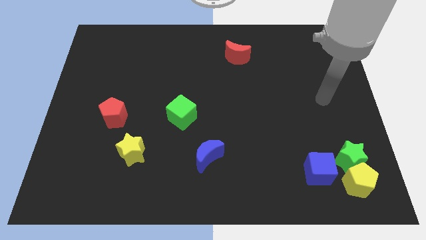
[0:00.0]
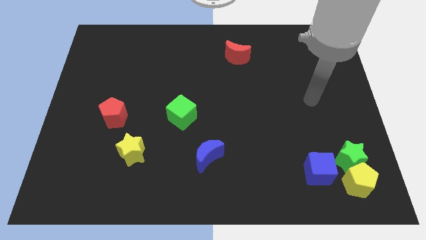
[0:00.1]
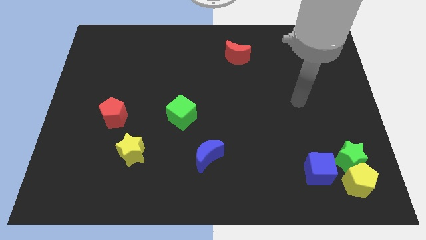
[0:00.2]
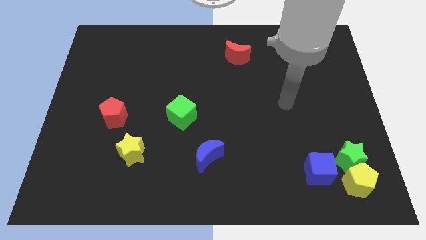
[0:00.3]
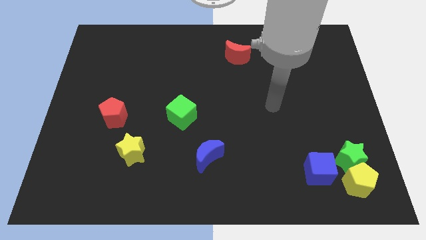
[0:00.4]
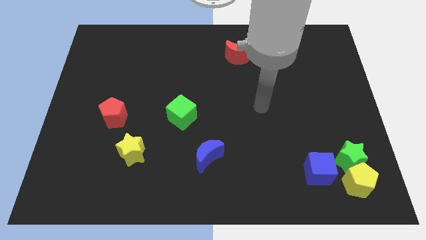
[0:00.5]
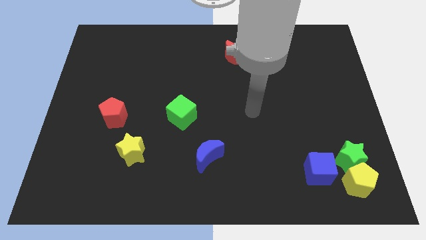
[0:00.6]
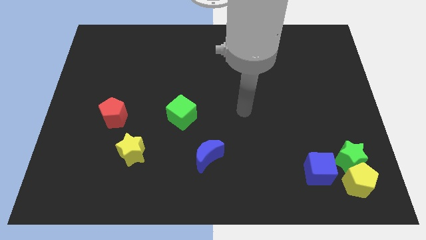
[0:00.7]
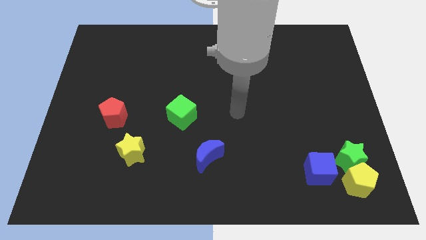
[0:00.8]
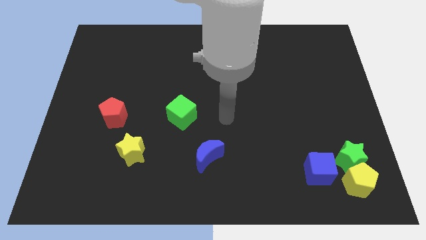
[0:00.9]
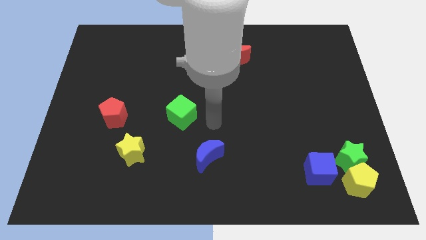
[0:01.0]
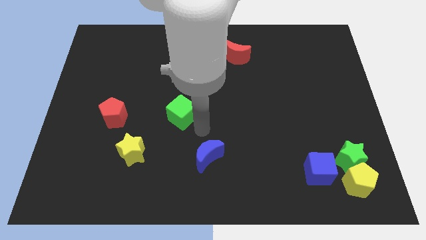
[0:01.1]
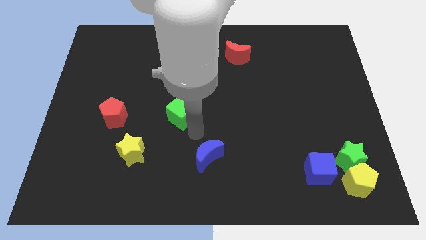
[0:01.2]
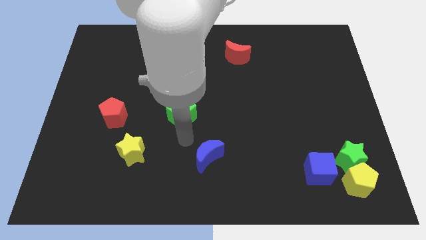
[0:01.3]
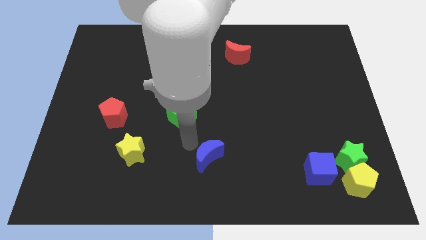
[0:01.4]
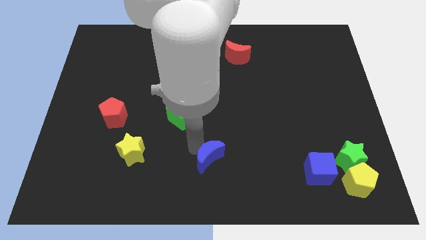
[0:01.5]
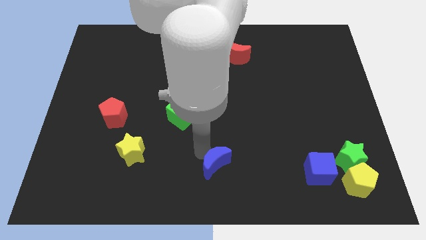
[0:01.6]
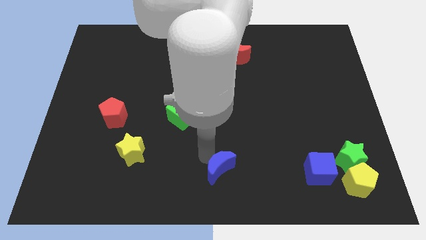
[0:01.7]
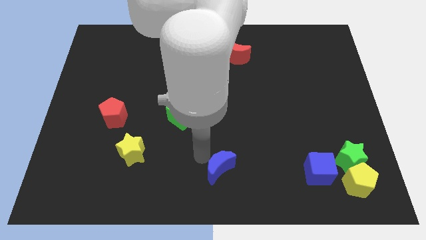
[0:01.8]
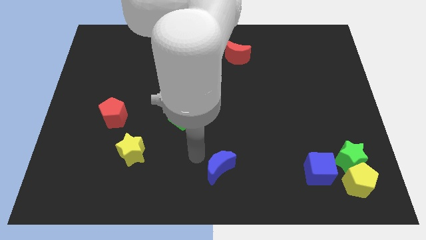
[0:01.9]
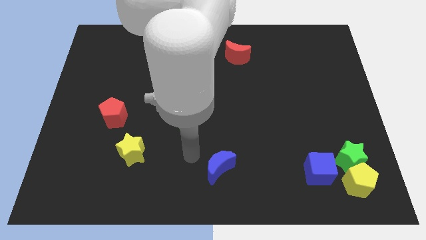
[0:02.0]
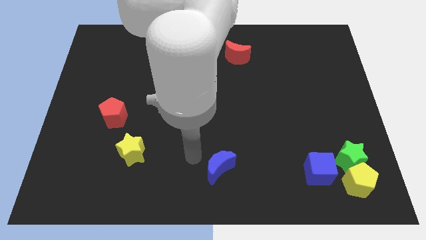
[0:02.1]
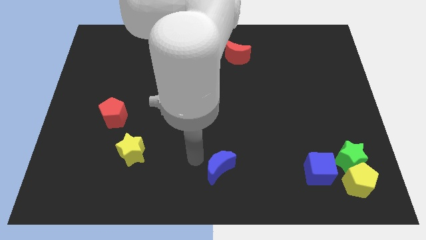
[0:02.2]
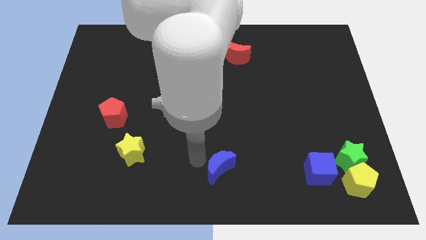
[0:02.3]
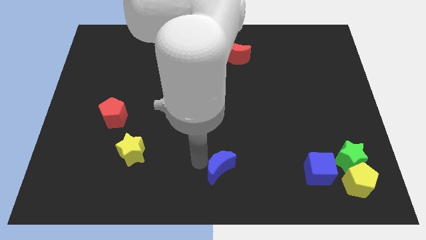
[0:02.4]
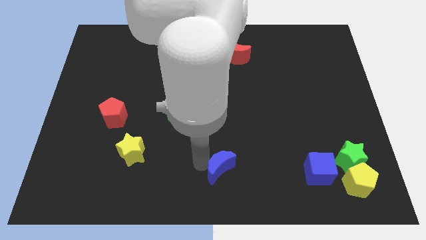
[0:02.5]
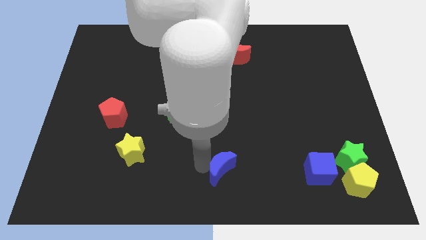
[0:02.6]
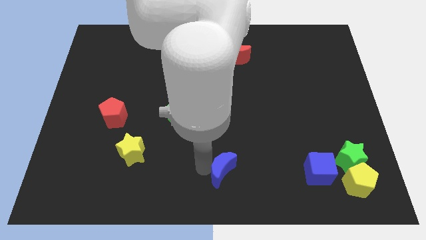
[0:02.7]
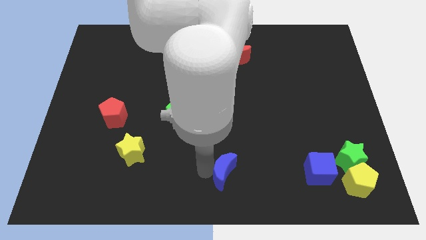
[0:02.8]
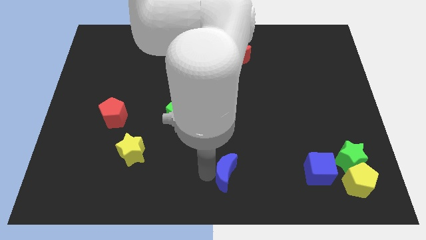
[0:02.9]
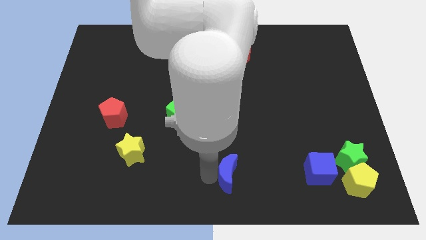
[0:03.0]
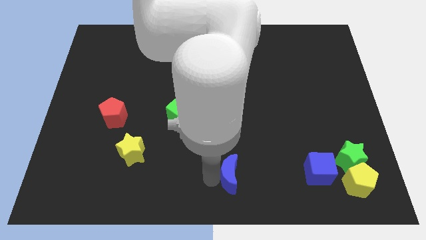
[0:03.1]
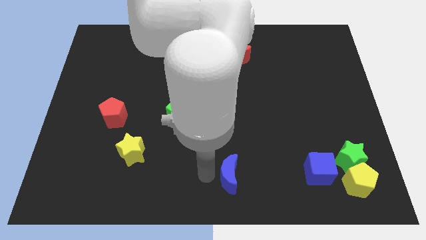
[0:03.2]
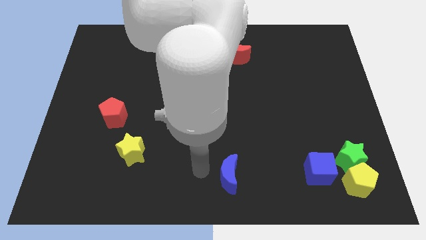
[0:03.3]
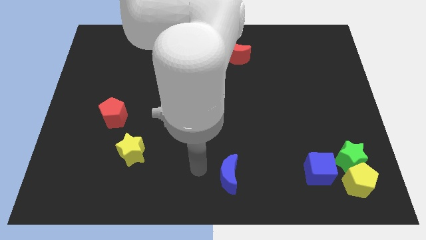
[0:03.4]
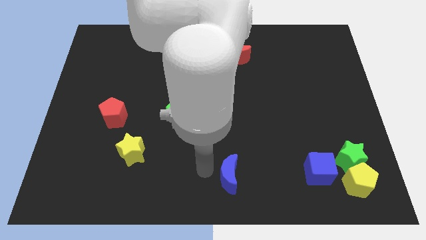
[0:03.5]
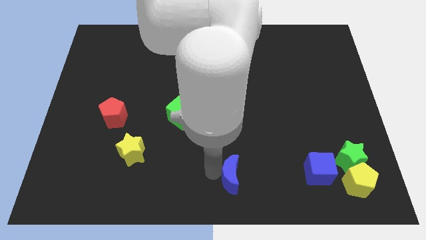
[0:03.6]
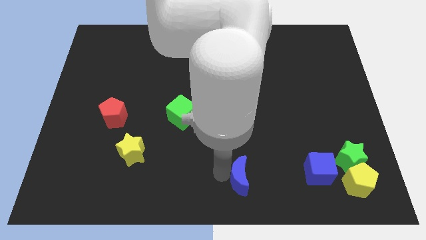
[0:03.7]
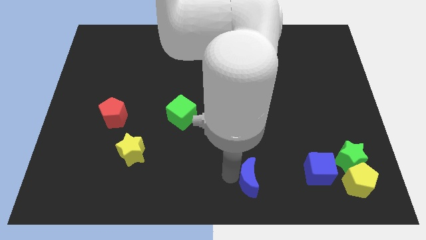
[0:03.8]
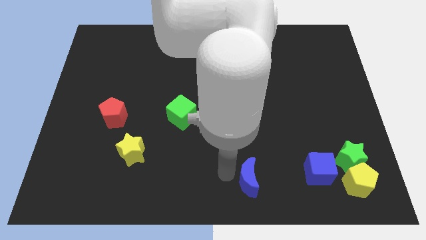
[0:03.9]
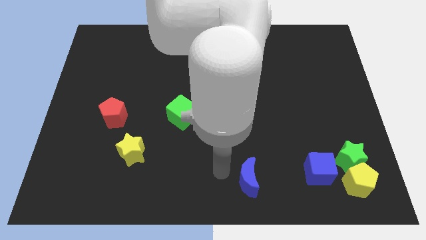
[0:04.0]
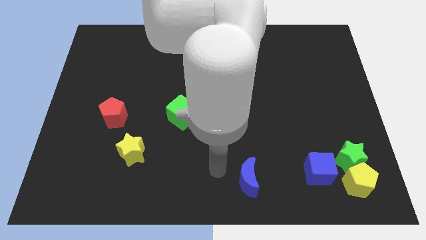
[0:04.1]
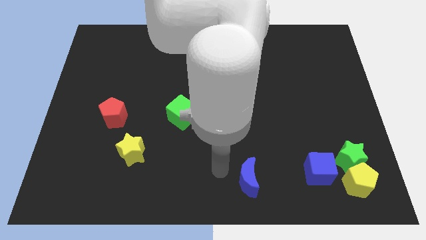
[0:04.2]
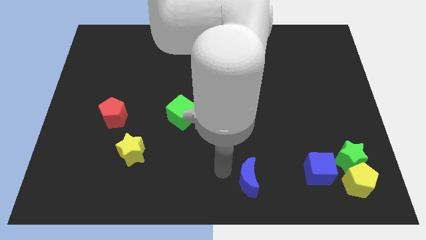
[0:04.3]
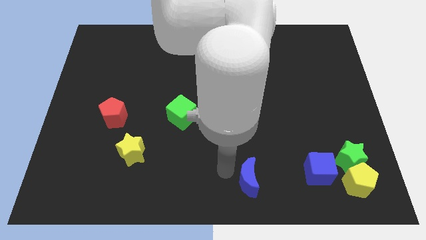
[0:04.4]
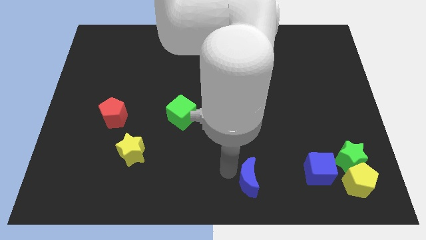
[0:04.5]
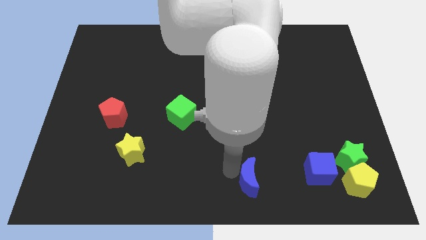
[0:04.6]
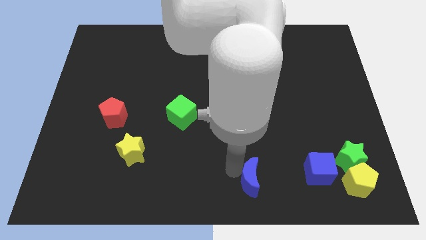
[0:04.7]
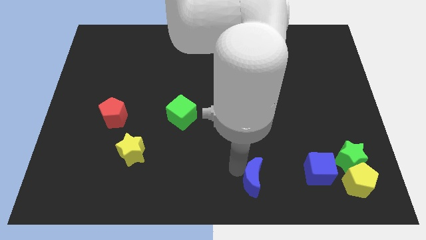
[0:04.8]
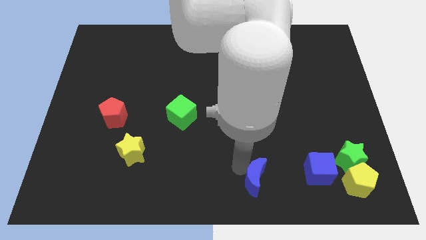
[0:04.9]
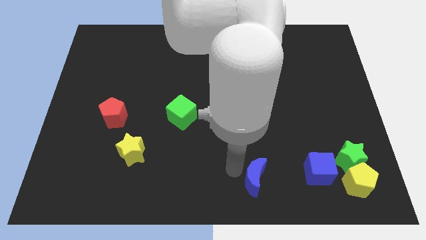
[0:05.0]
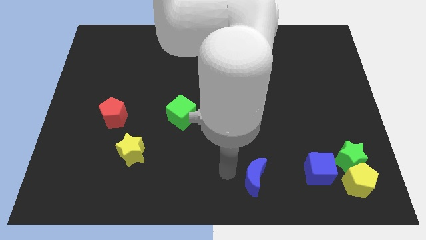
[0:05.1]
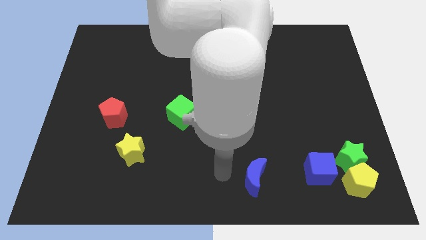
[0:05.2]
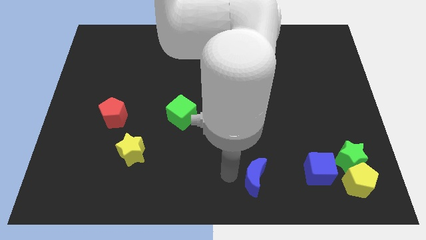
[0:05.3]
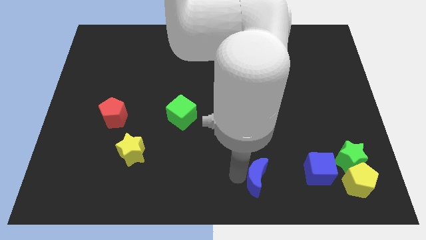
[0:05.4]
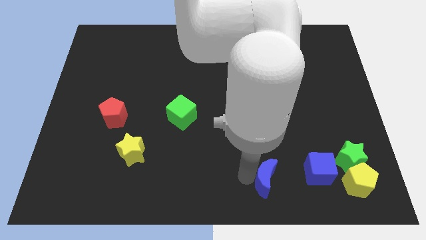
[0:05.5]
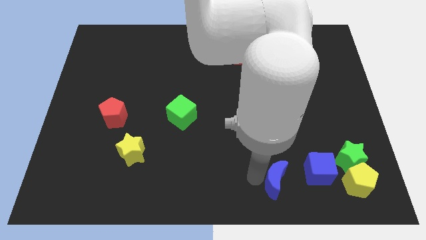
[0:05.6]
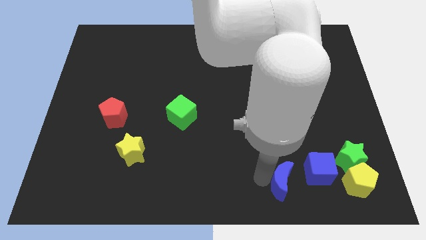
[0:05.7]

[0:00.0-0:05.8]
put the blue moon to the left of the yellow pentagon

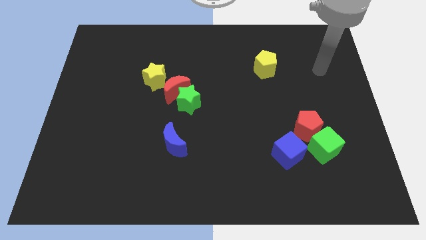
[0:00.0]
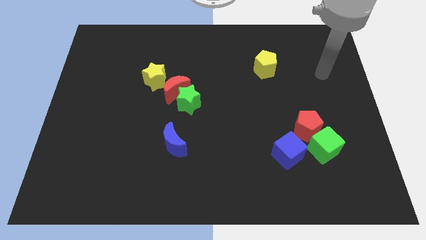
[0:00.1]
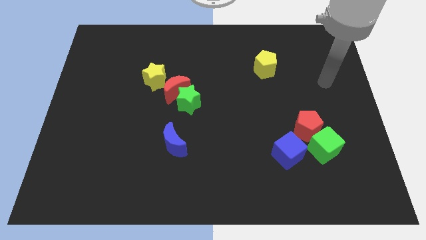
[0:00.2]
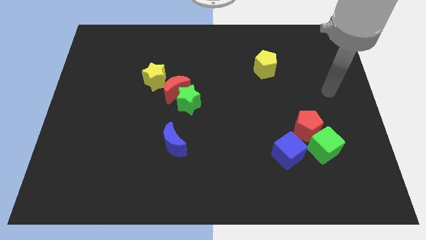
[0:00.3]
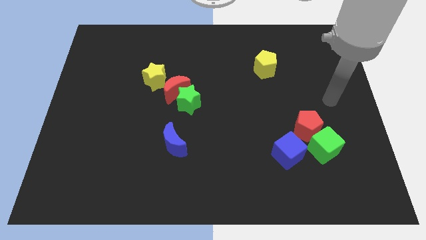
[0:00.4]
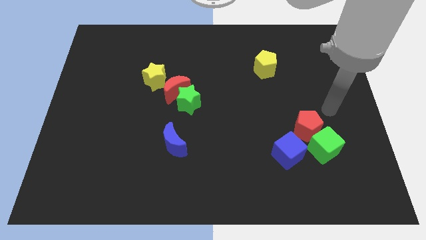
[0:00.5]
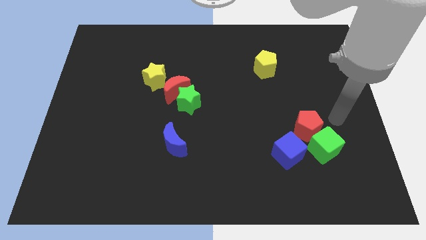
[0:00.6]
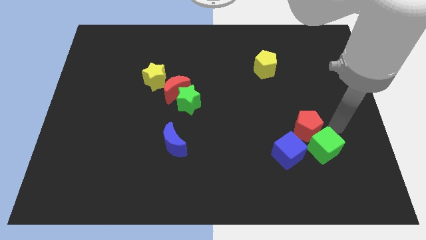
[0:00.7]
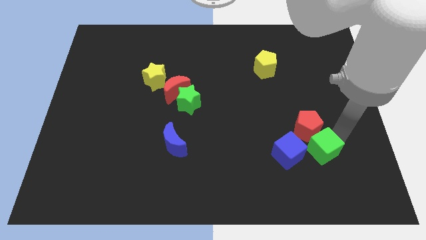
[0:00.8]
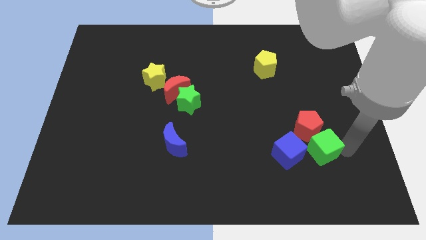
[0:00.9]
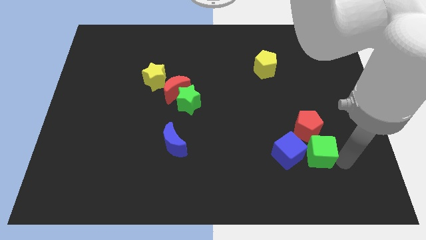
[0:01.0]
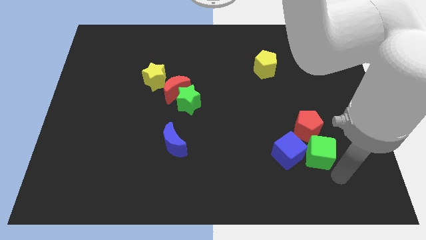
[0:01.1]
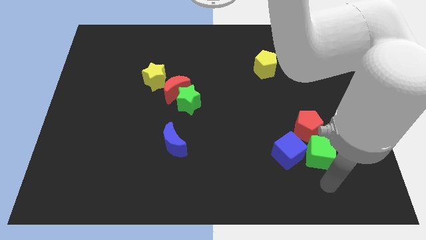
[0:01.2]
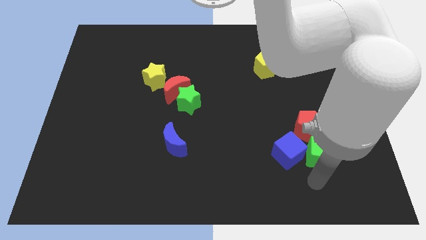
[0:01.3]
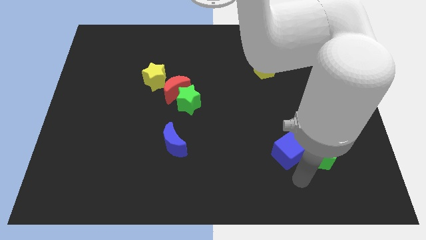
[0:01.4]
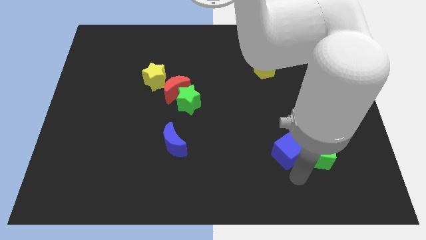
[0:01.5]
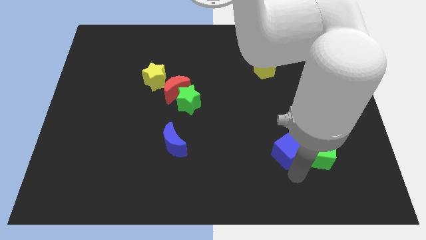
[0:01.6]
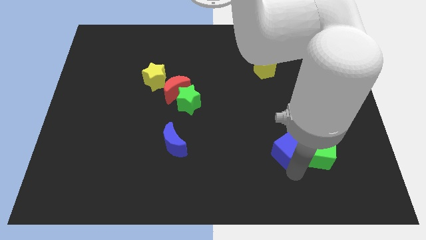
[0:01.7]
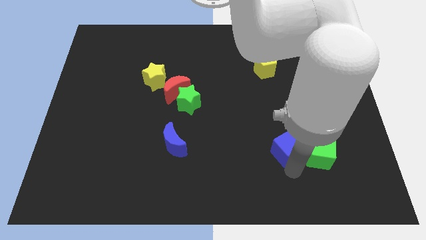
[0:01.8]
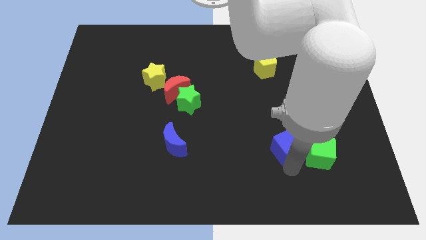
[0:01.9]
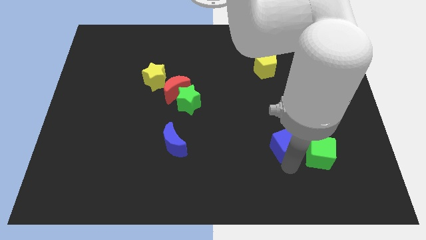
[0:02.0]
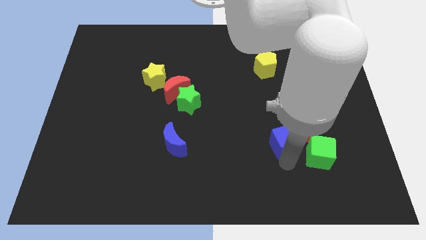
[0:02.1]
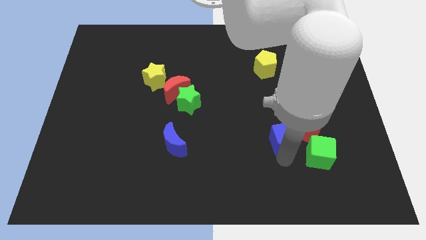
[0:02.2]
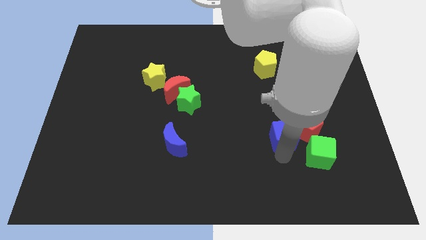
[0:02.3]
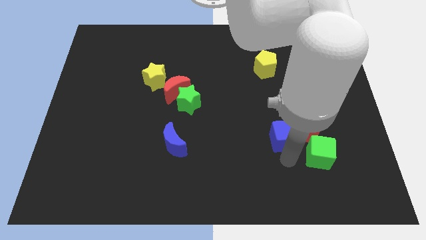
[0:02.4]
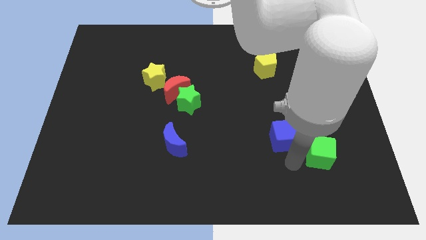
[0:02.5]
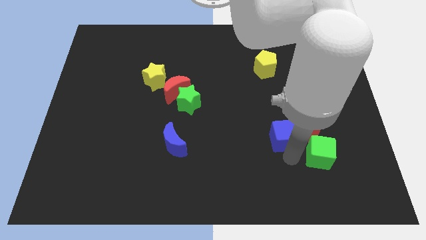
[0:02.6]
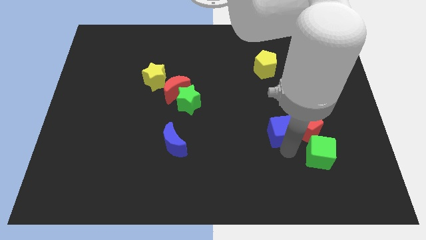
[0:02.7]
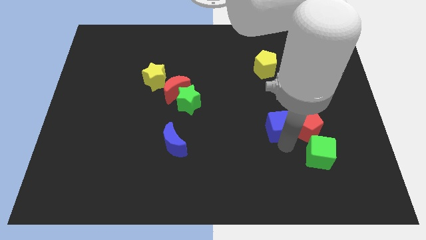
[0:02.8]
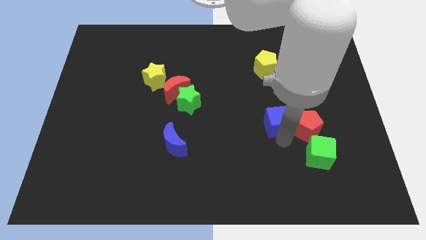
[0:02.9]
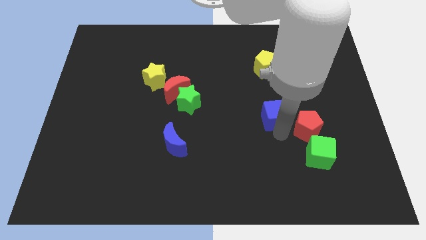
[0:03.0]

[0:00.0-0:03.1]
put the blue cube below the yellow pentagon
